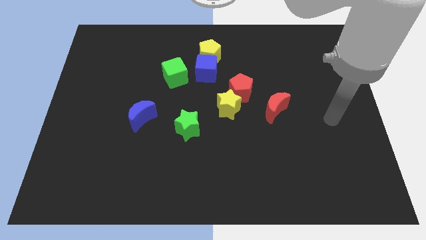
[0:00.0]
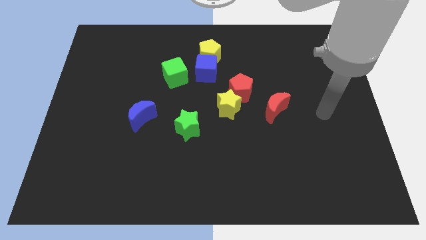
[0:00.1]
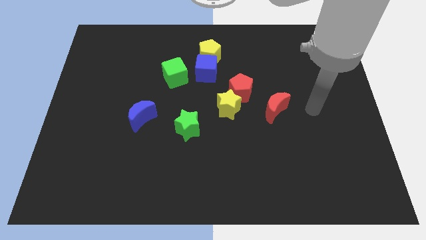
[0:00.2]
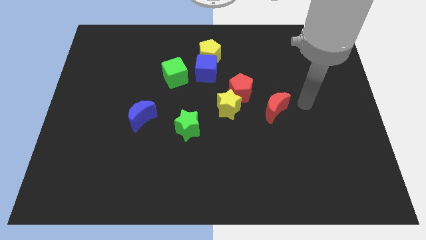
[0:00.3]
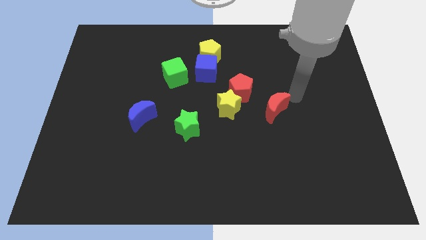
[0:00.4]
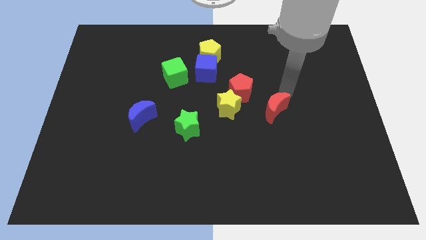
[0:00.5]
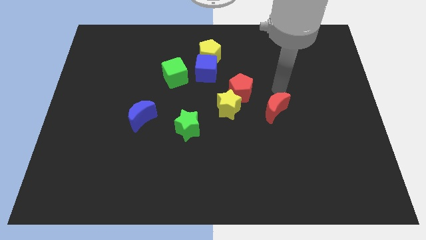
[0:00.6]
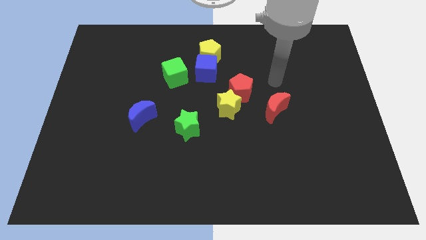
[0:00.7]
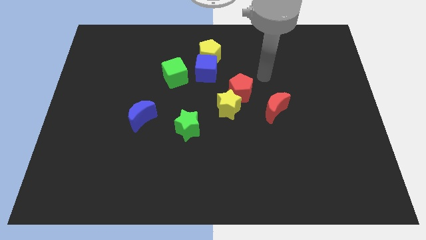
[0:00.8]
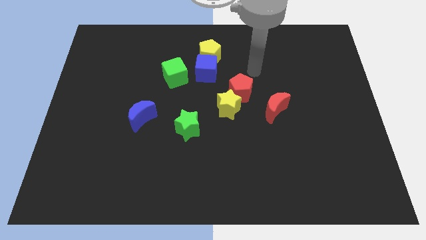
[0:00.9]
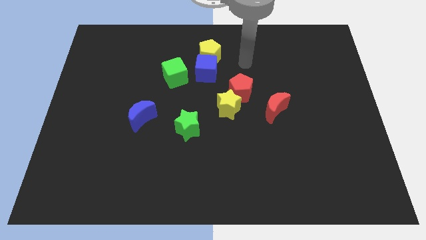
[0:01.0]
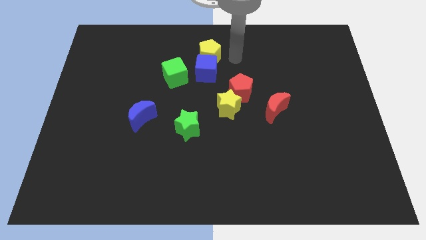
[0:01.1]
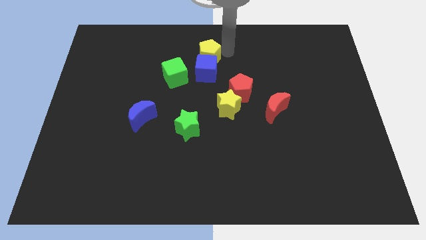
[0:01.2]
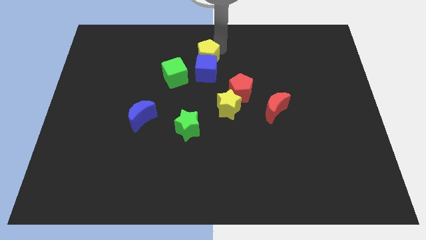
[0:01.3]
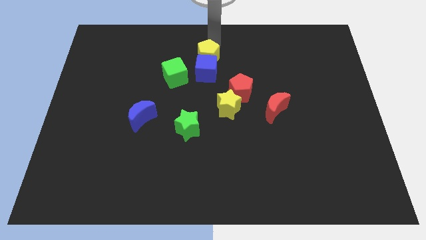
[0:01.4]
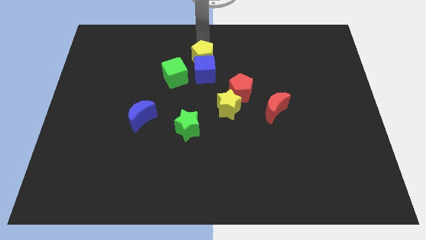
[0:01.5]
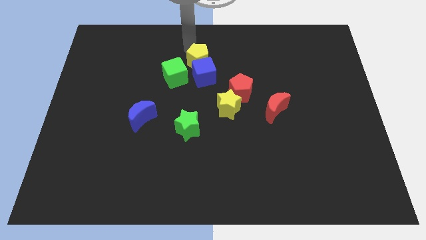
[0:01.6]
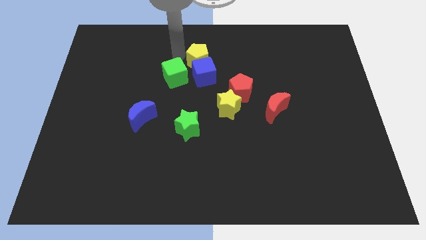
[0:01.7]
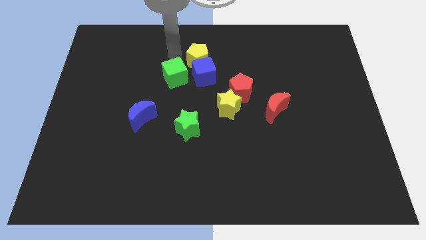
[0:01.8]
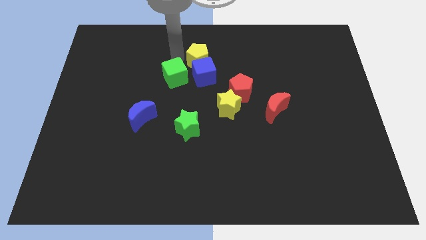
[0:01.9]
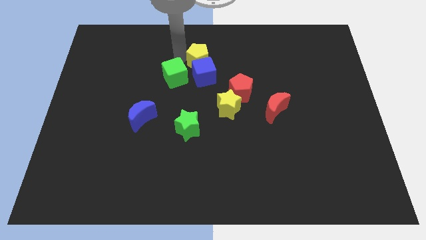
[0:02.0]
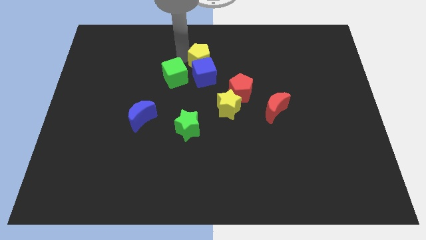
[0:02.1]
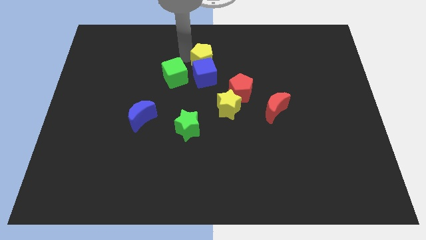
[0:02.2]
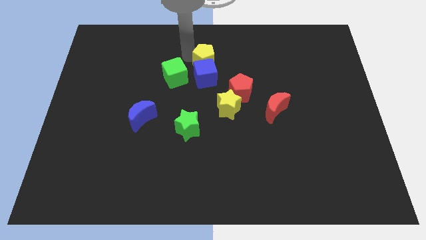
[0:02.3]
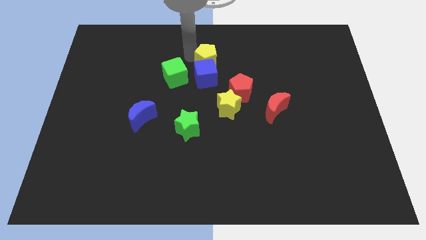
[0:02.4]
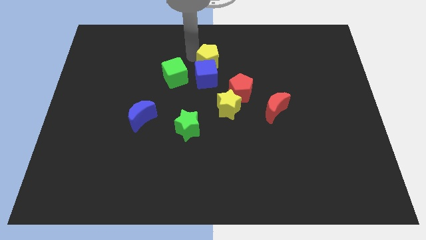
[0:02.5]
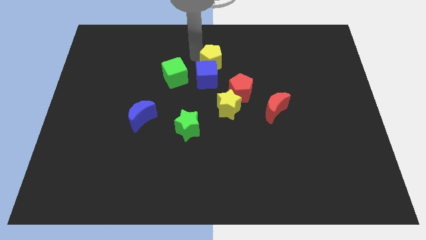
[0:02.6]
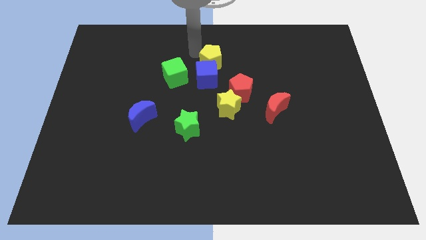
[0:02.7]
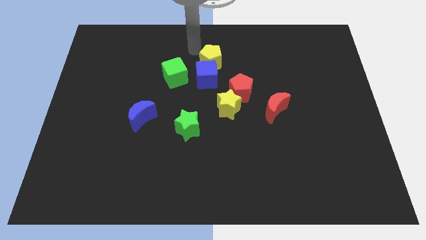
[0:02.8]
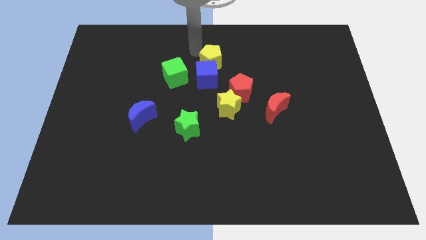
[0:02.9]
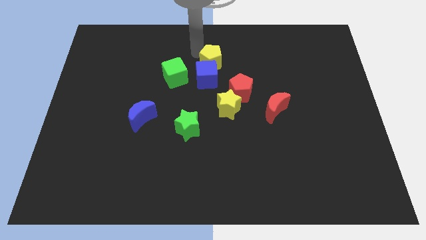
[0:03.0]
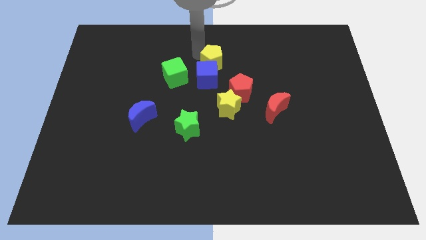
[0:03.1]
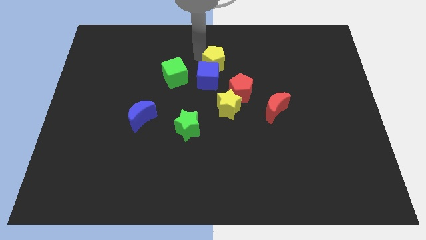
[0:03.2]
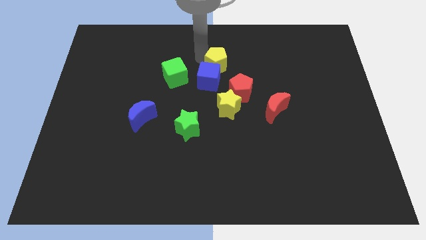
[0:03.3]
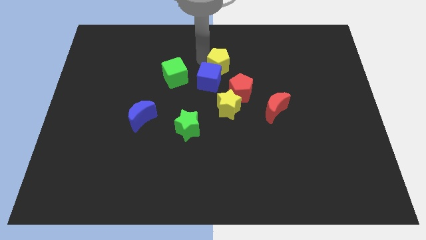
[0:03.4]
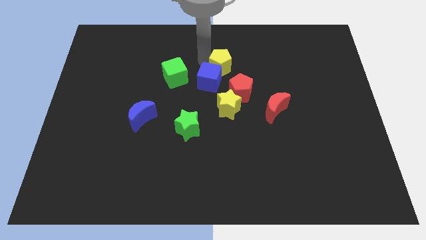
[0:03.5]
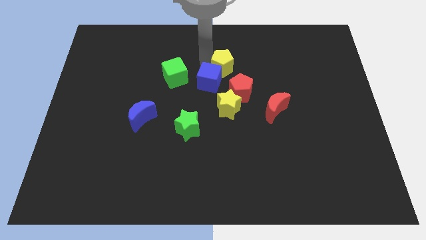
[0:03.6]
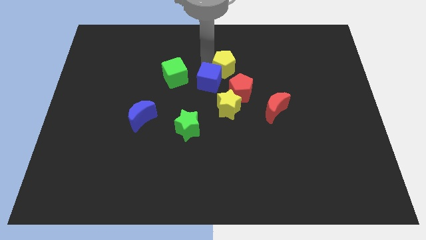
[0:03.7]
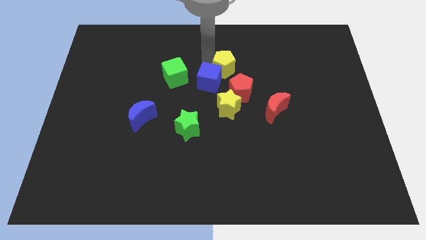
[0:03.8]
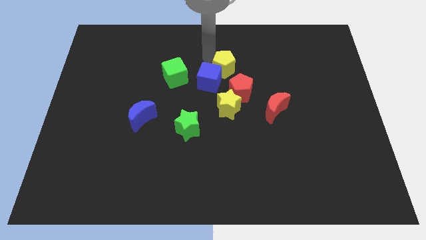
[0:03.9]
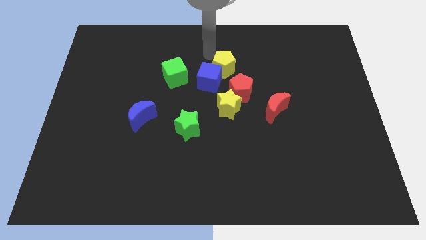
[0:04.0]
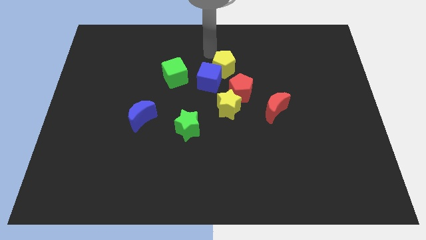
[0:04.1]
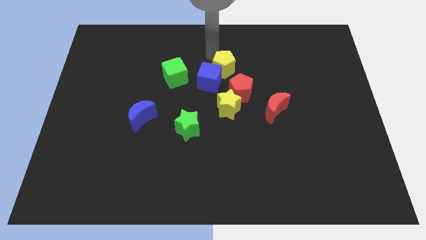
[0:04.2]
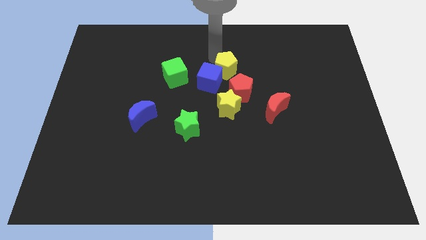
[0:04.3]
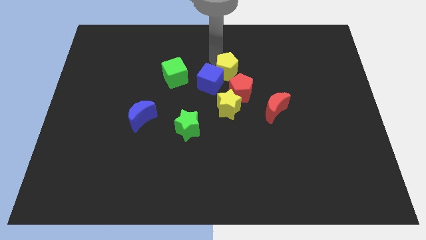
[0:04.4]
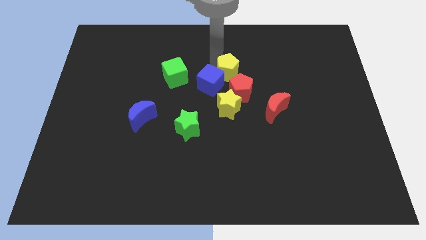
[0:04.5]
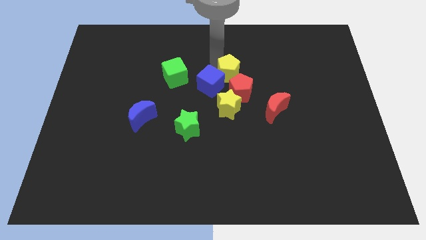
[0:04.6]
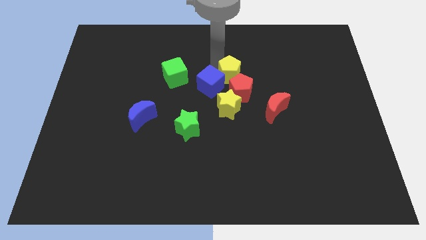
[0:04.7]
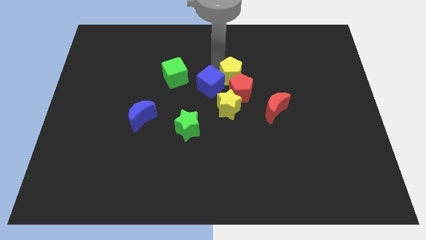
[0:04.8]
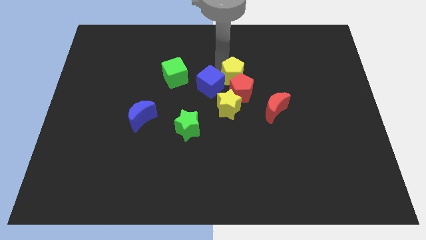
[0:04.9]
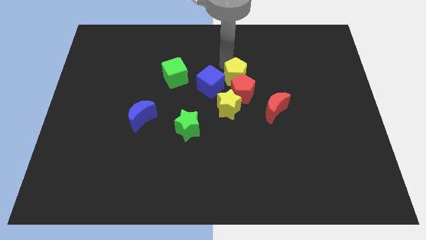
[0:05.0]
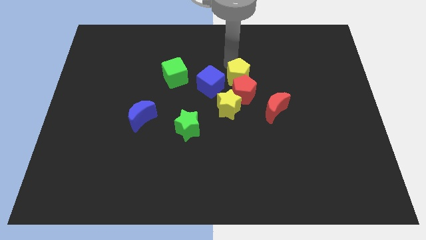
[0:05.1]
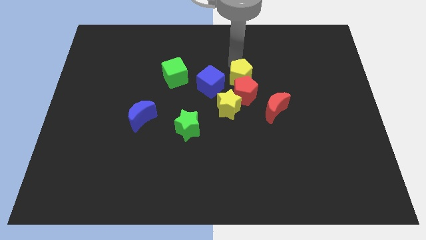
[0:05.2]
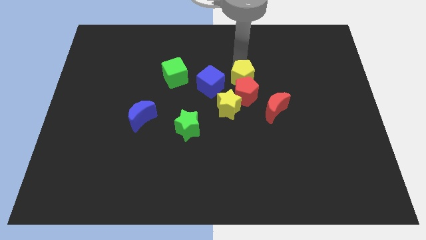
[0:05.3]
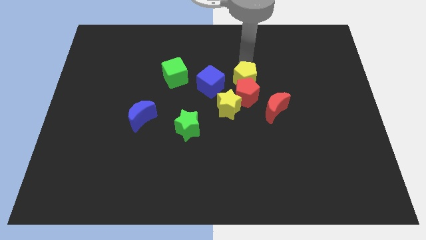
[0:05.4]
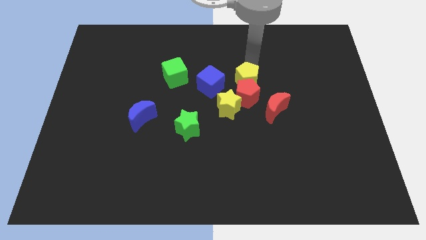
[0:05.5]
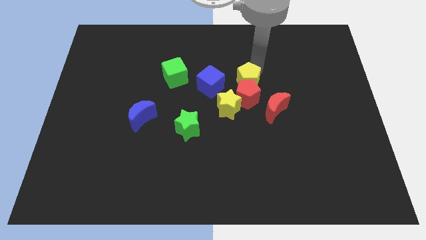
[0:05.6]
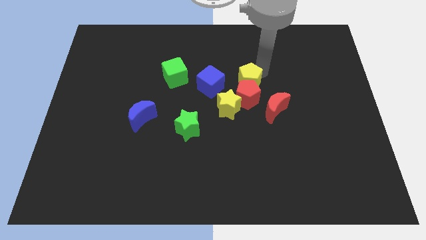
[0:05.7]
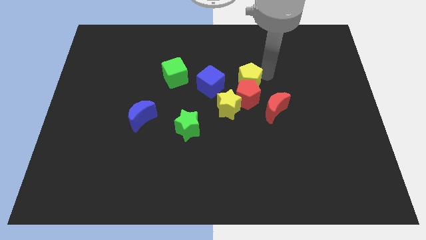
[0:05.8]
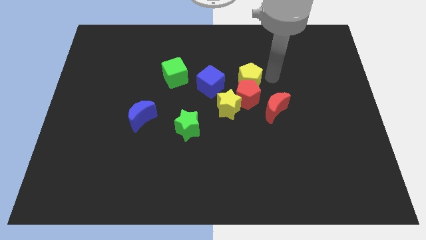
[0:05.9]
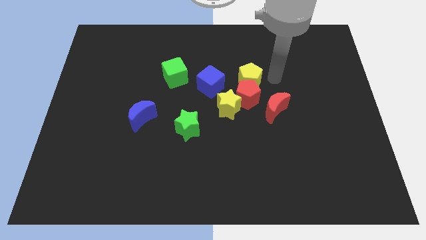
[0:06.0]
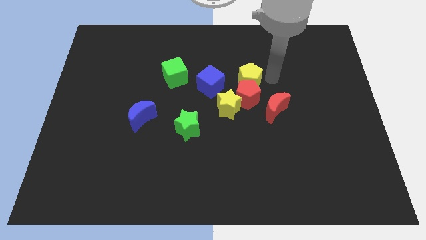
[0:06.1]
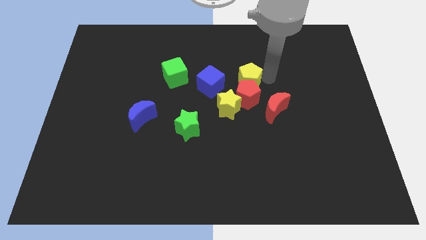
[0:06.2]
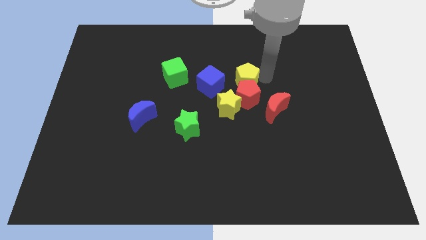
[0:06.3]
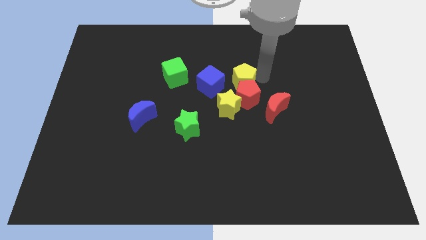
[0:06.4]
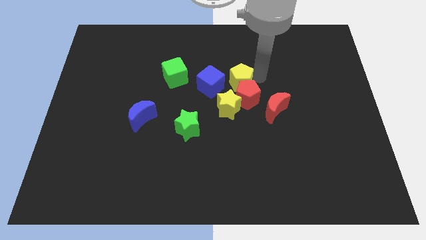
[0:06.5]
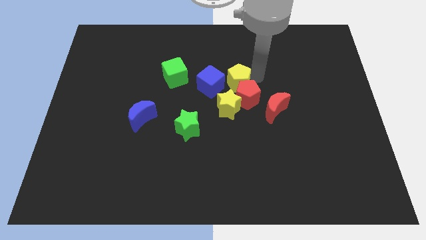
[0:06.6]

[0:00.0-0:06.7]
push the yellow pentagon downwards a bit

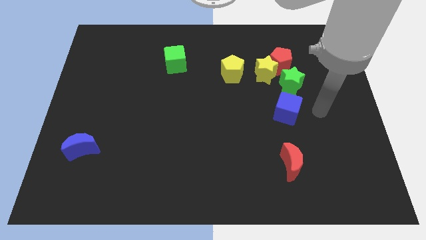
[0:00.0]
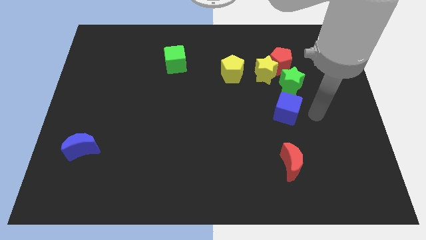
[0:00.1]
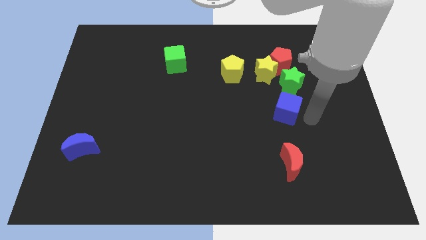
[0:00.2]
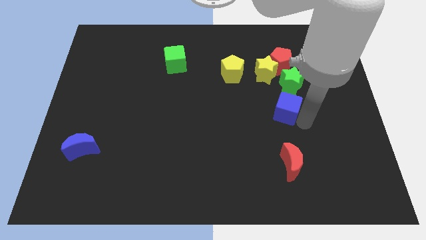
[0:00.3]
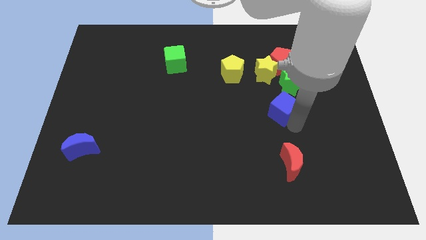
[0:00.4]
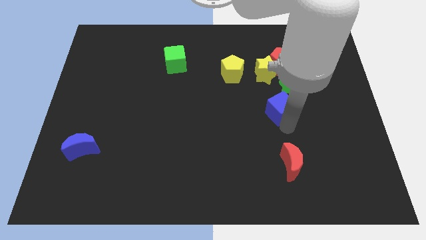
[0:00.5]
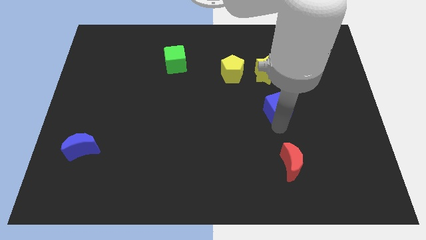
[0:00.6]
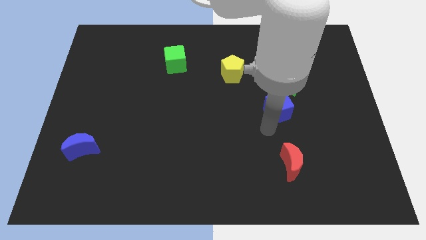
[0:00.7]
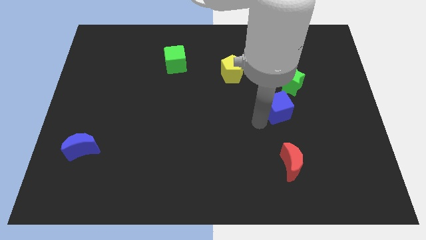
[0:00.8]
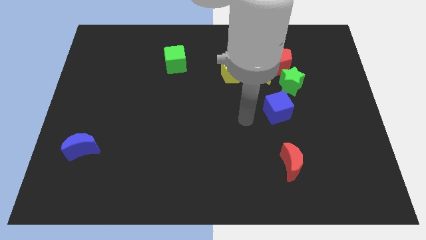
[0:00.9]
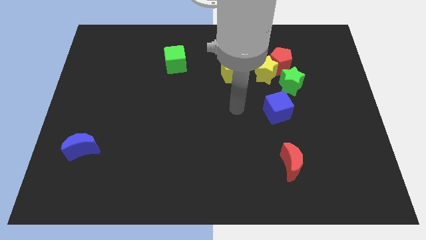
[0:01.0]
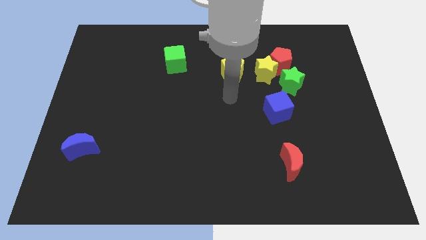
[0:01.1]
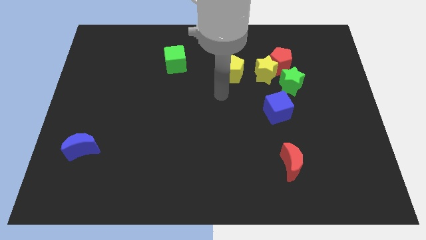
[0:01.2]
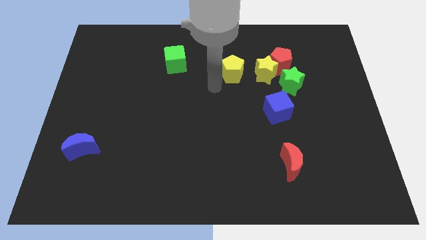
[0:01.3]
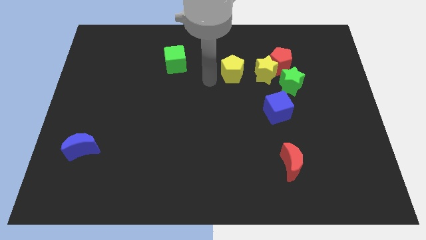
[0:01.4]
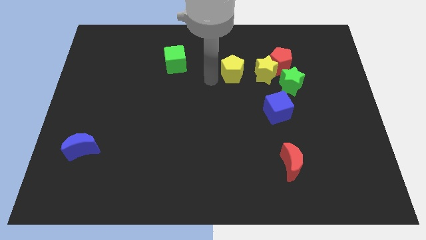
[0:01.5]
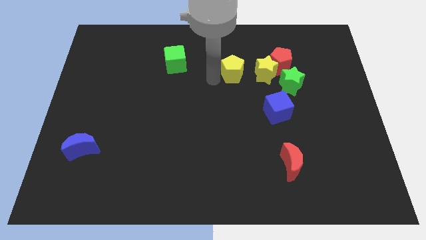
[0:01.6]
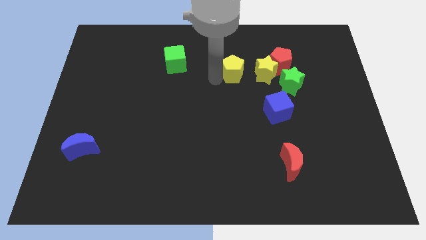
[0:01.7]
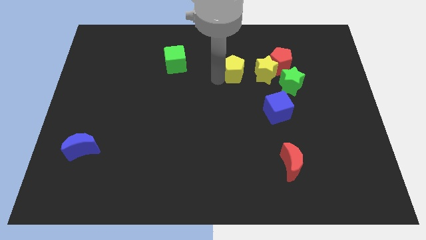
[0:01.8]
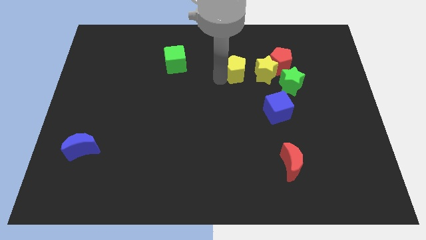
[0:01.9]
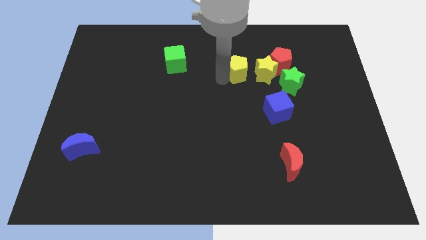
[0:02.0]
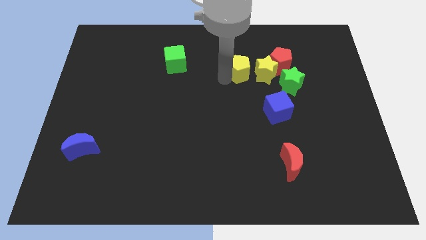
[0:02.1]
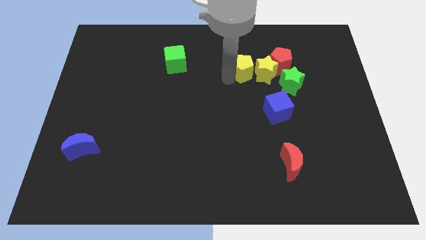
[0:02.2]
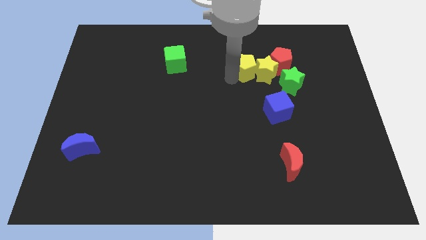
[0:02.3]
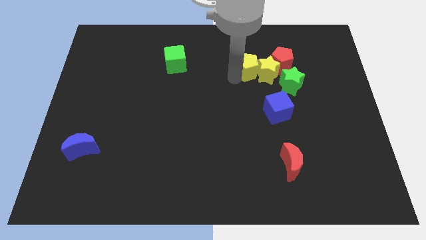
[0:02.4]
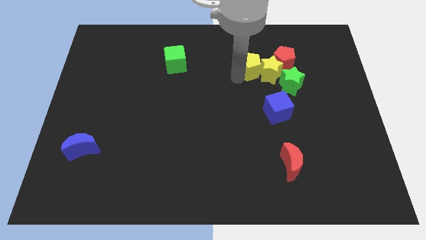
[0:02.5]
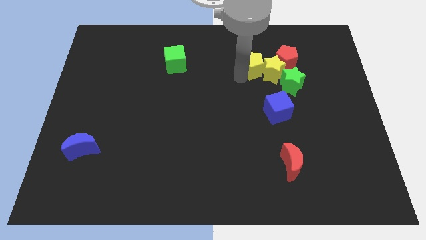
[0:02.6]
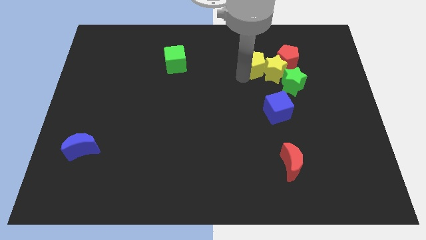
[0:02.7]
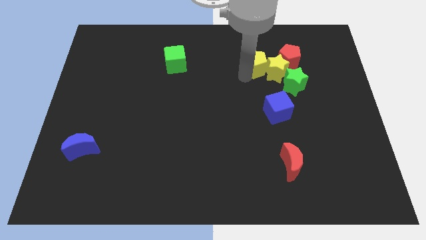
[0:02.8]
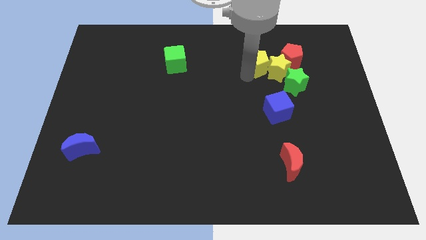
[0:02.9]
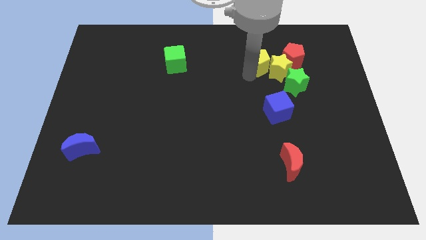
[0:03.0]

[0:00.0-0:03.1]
slide the yellow pentagon to the right a bit
